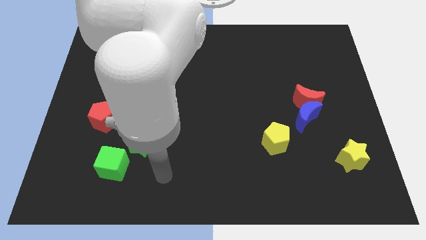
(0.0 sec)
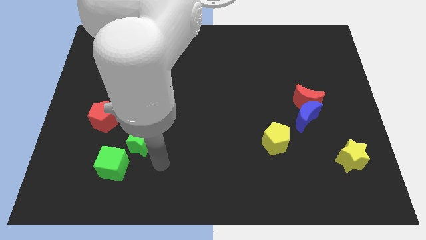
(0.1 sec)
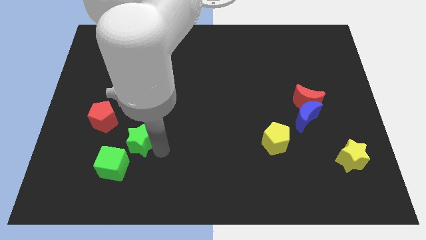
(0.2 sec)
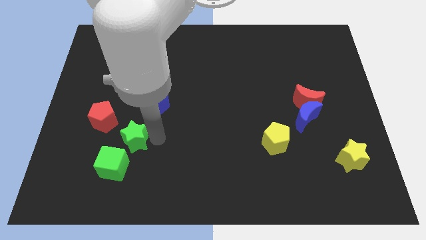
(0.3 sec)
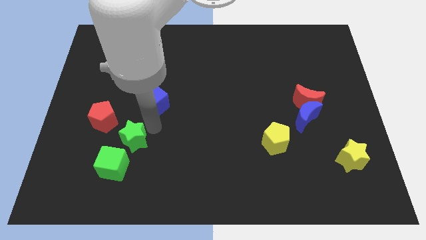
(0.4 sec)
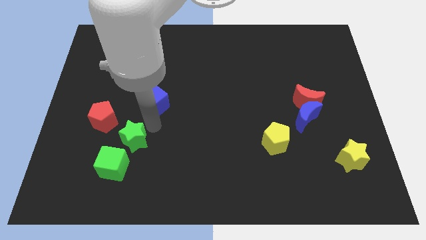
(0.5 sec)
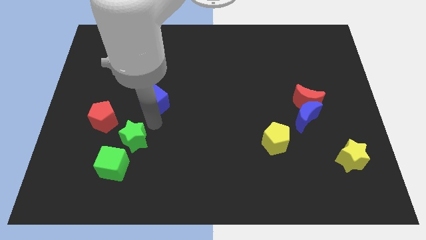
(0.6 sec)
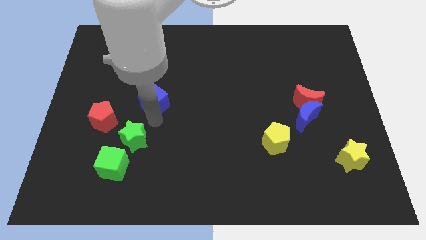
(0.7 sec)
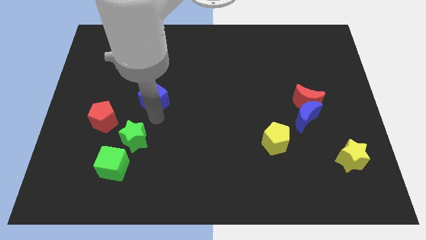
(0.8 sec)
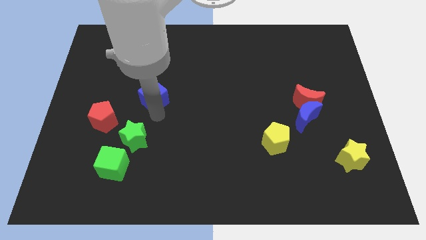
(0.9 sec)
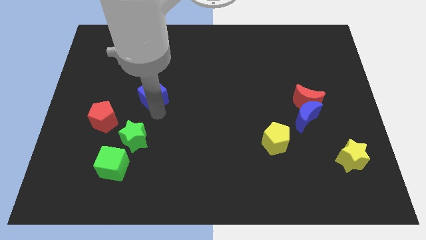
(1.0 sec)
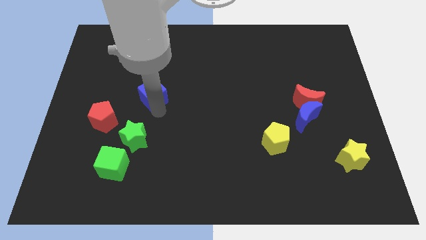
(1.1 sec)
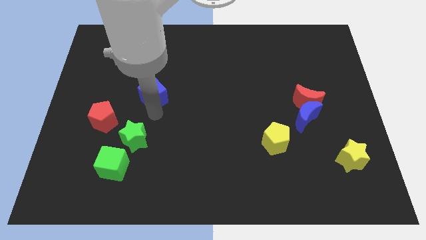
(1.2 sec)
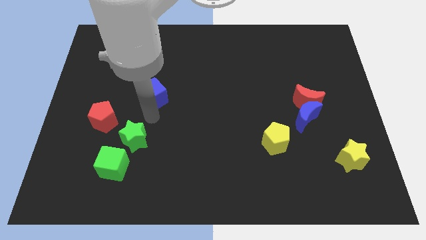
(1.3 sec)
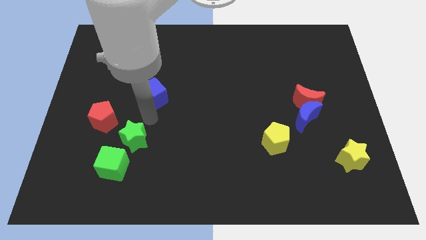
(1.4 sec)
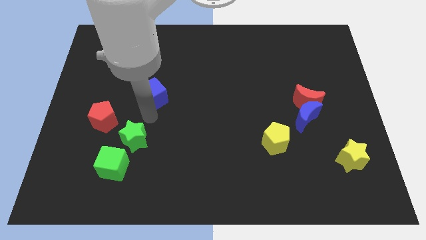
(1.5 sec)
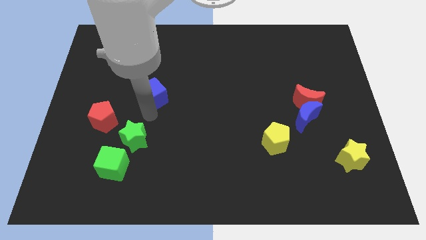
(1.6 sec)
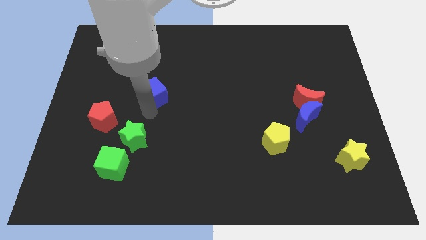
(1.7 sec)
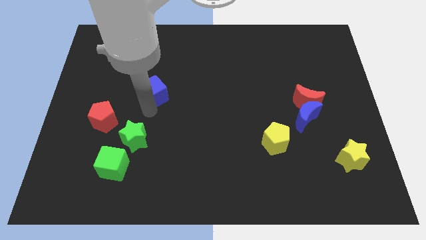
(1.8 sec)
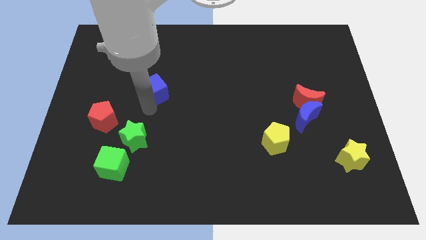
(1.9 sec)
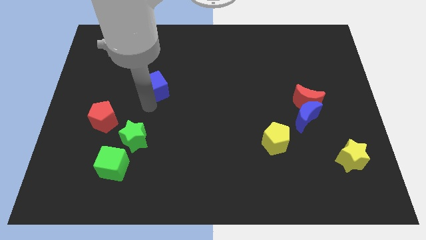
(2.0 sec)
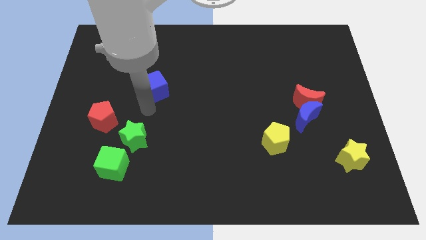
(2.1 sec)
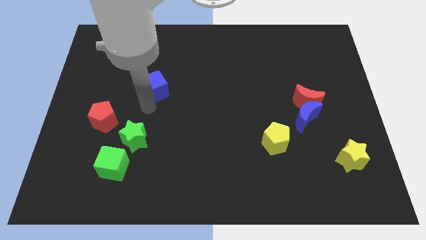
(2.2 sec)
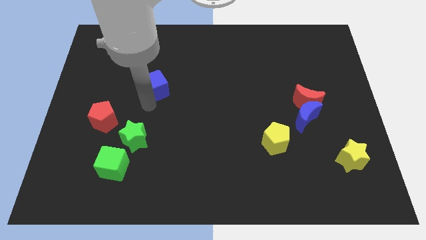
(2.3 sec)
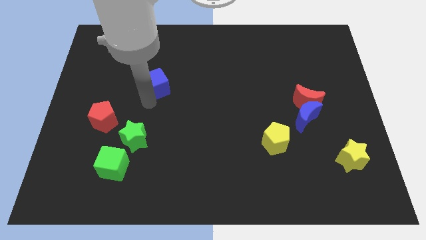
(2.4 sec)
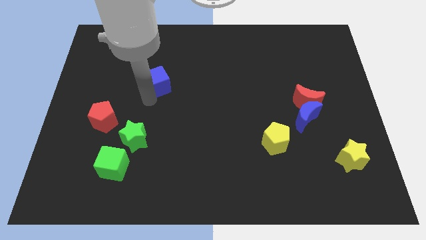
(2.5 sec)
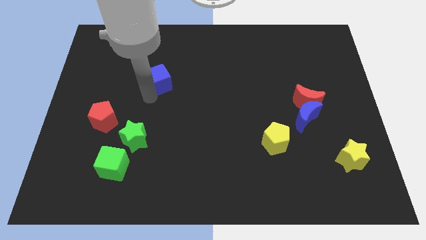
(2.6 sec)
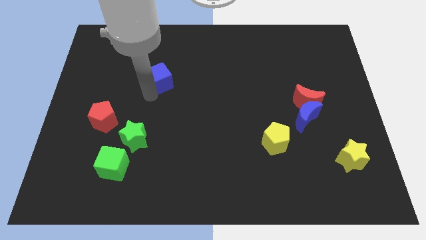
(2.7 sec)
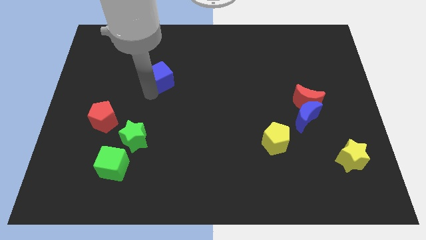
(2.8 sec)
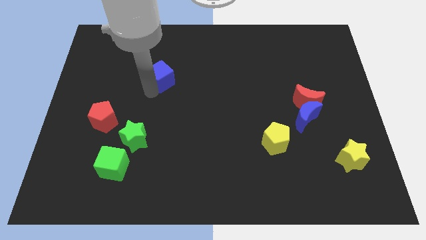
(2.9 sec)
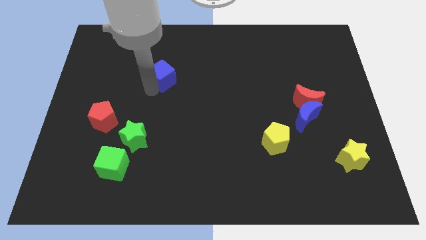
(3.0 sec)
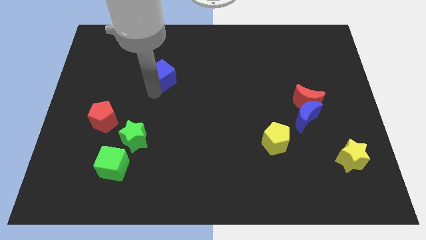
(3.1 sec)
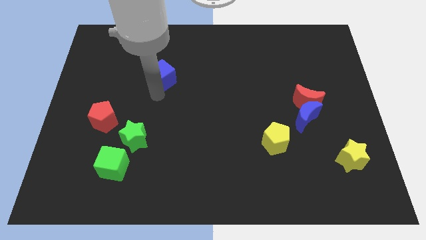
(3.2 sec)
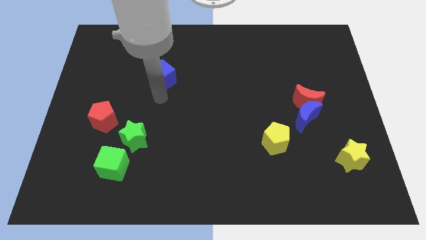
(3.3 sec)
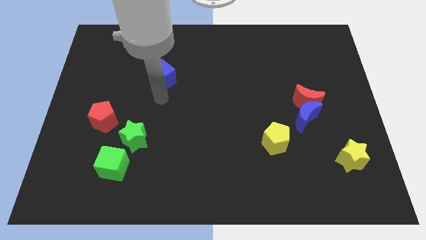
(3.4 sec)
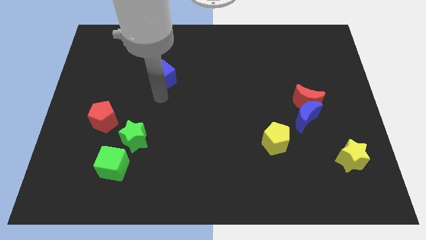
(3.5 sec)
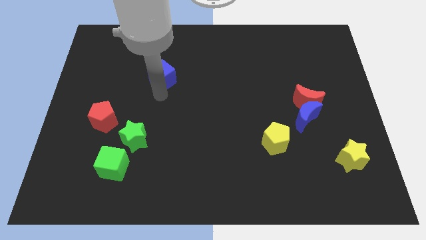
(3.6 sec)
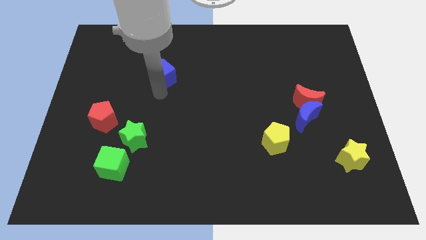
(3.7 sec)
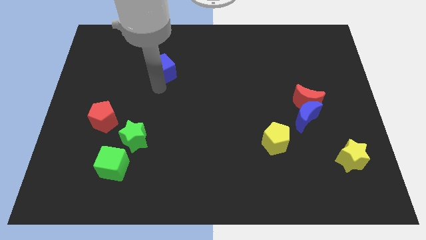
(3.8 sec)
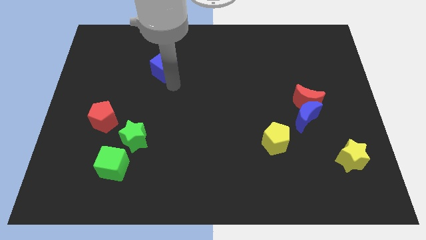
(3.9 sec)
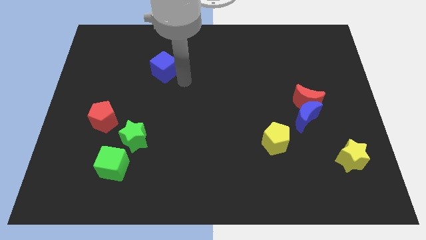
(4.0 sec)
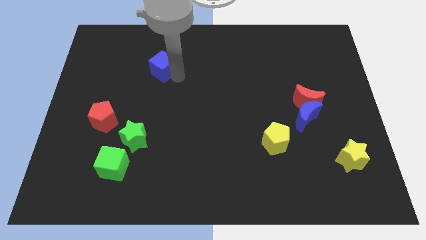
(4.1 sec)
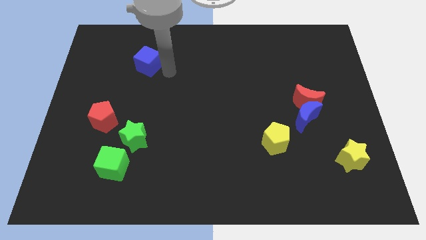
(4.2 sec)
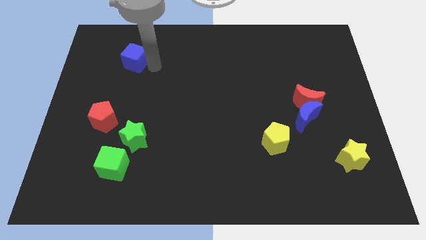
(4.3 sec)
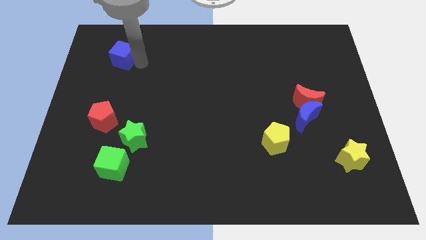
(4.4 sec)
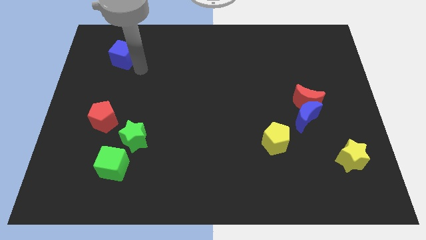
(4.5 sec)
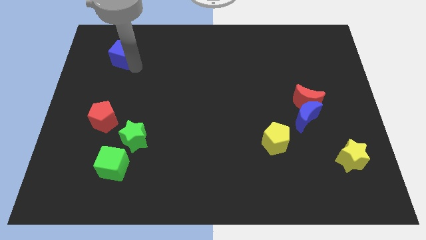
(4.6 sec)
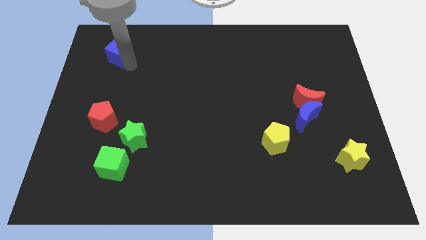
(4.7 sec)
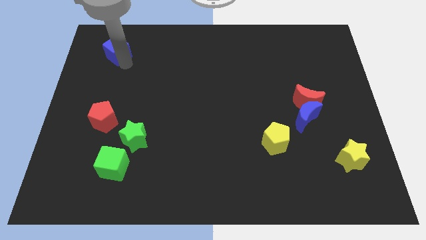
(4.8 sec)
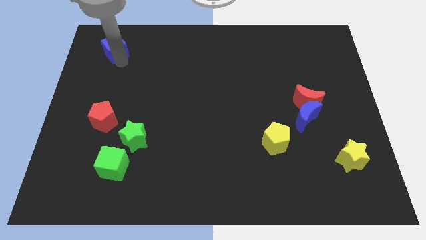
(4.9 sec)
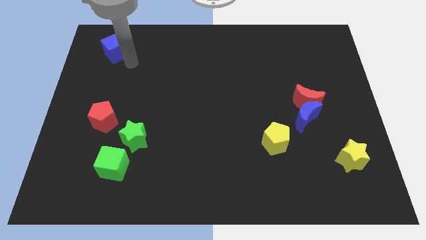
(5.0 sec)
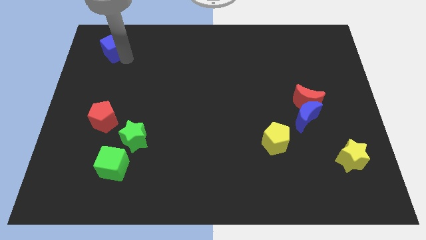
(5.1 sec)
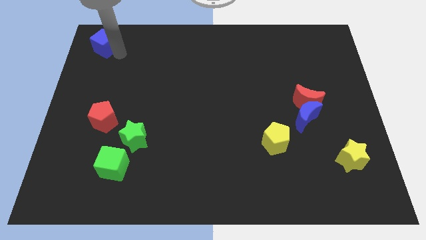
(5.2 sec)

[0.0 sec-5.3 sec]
push the blue cube to the top left corner

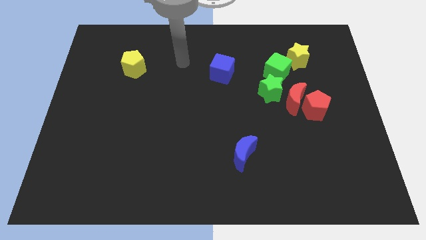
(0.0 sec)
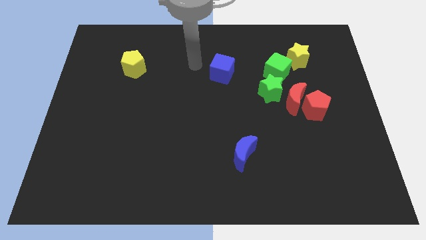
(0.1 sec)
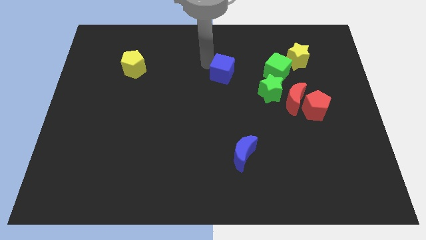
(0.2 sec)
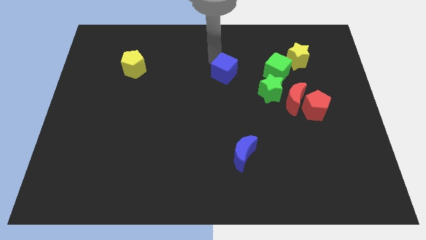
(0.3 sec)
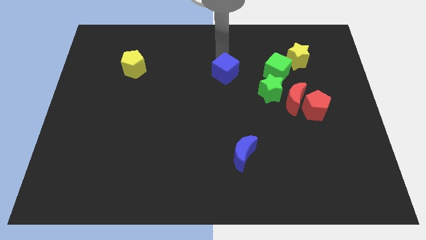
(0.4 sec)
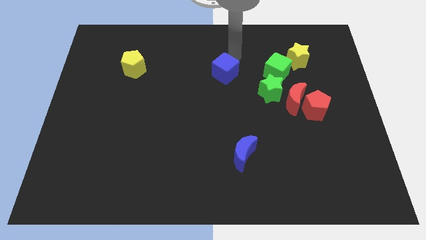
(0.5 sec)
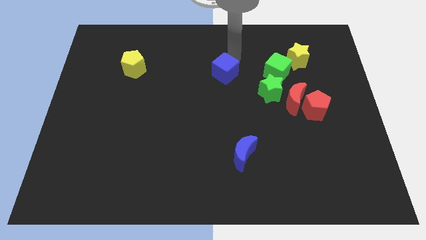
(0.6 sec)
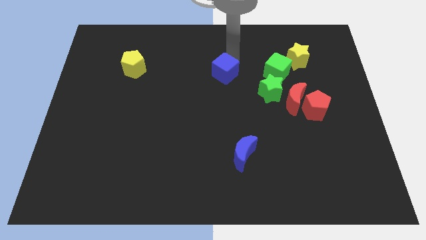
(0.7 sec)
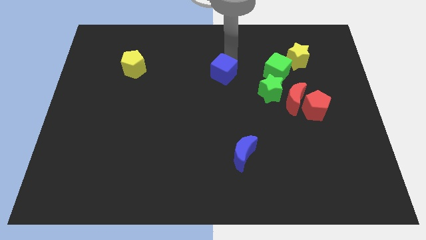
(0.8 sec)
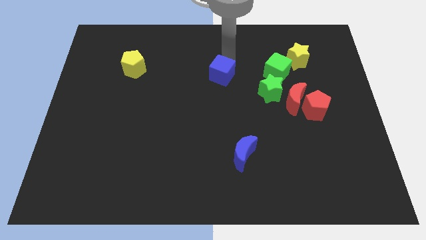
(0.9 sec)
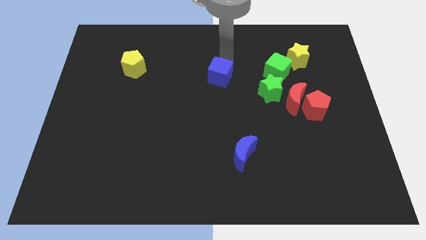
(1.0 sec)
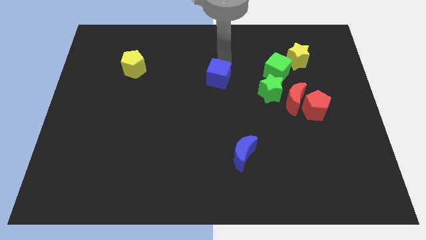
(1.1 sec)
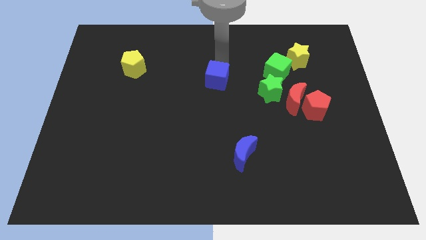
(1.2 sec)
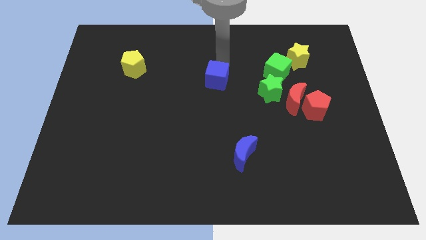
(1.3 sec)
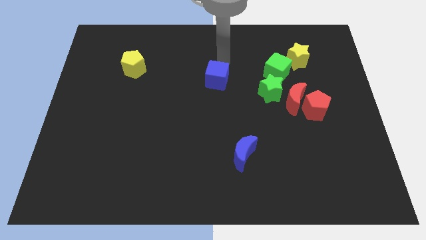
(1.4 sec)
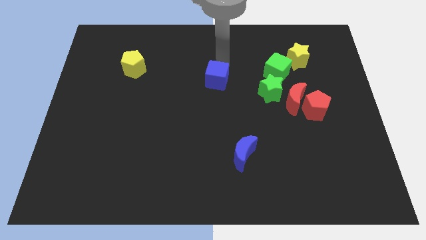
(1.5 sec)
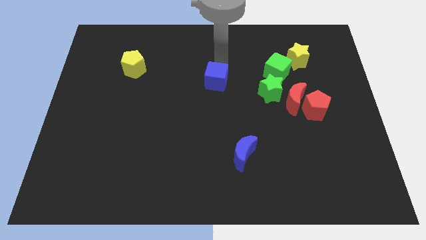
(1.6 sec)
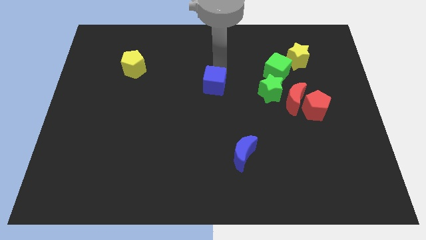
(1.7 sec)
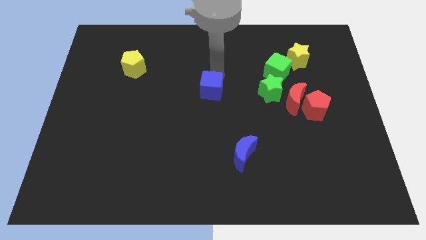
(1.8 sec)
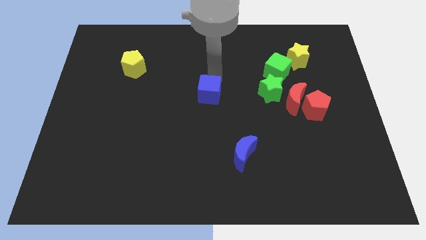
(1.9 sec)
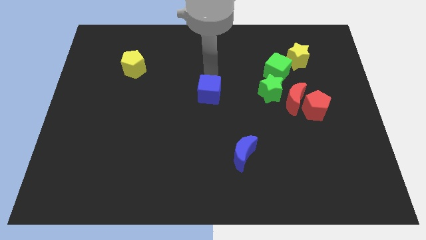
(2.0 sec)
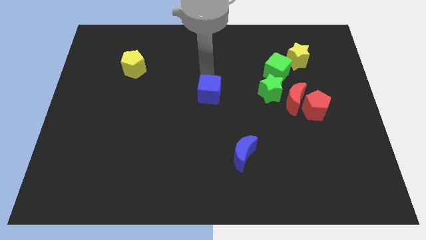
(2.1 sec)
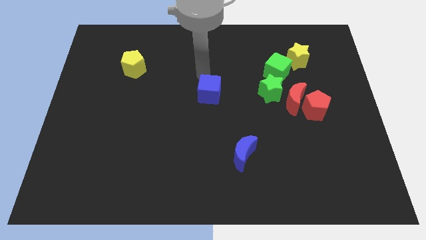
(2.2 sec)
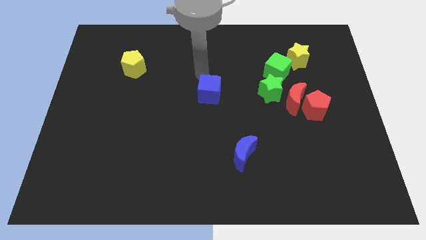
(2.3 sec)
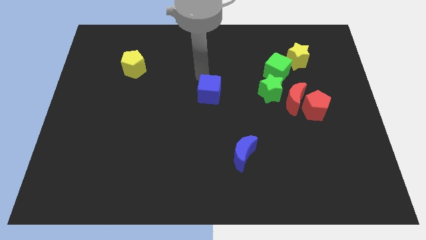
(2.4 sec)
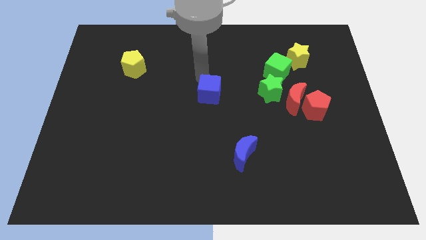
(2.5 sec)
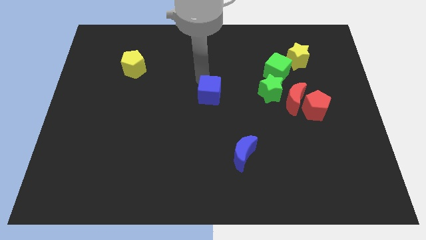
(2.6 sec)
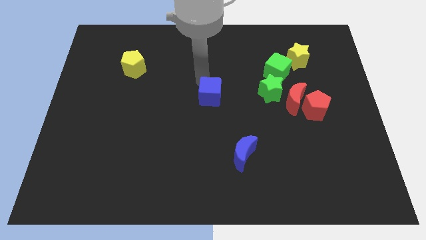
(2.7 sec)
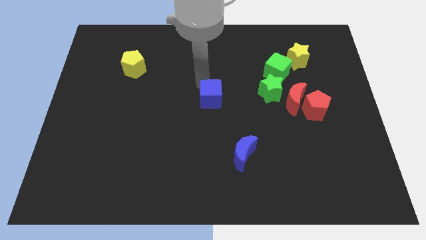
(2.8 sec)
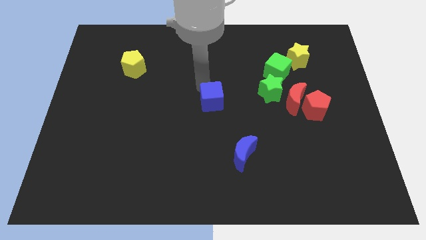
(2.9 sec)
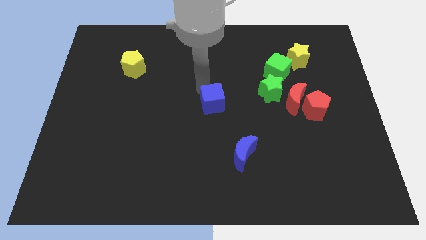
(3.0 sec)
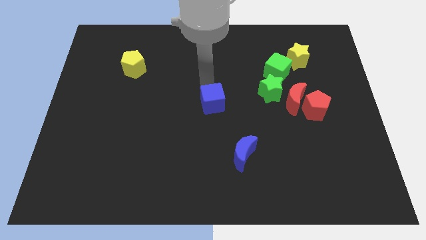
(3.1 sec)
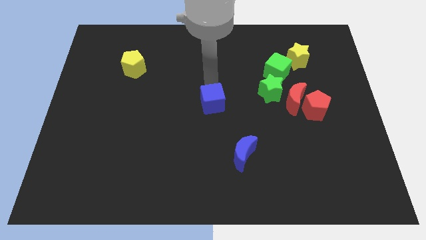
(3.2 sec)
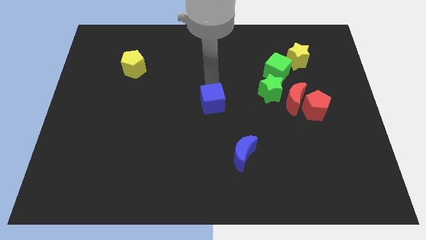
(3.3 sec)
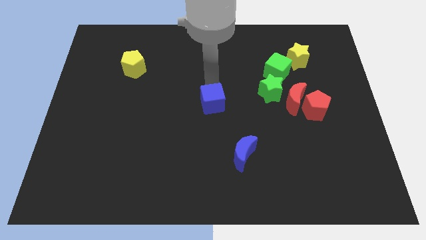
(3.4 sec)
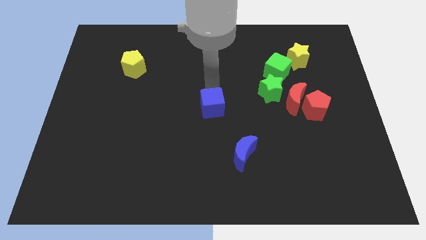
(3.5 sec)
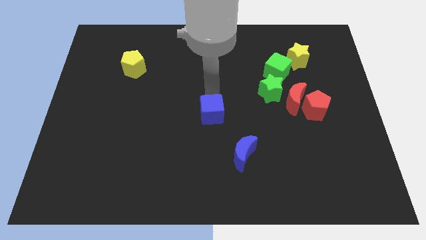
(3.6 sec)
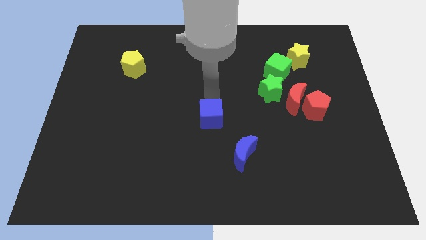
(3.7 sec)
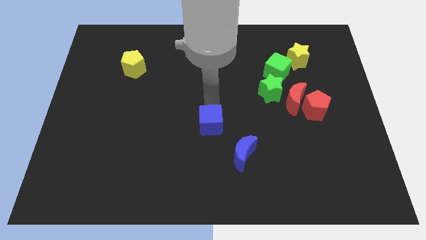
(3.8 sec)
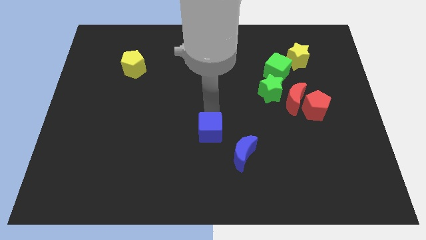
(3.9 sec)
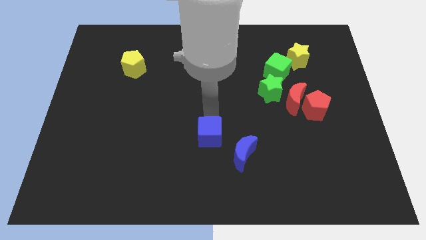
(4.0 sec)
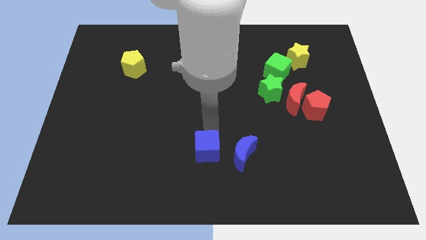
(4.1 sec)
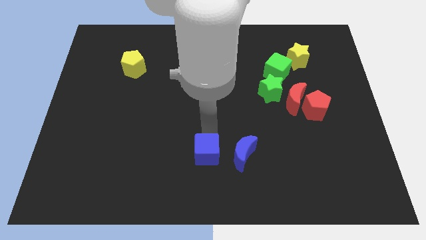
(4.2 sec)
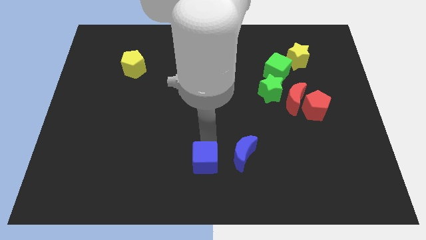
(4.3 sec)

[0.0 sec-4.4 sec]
put the blue cube to the bottom
